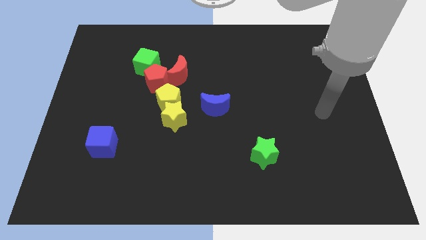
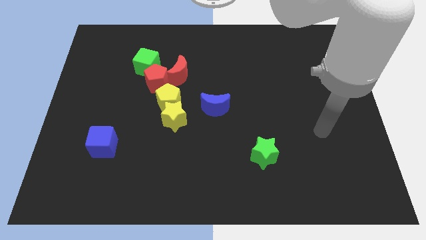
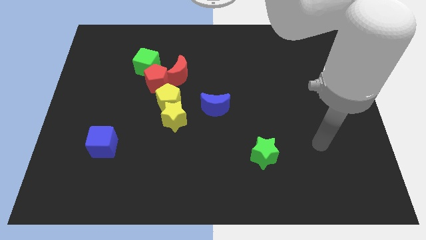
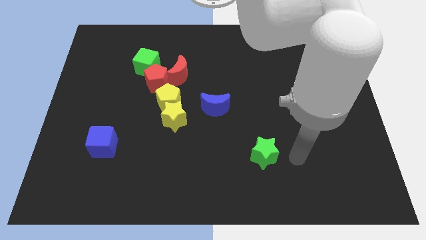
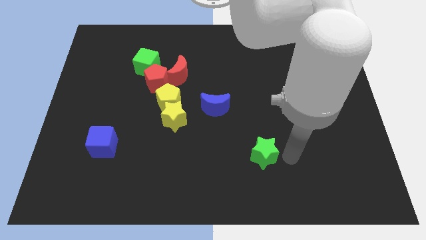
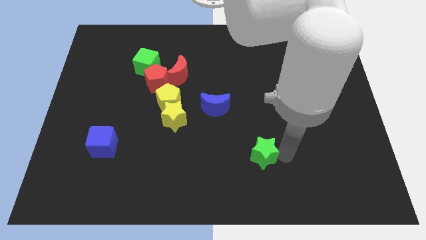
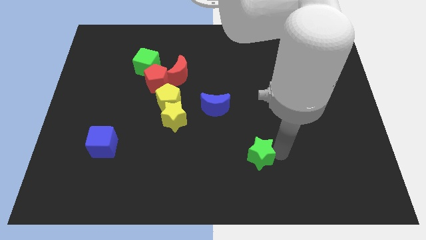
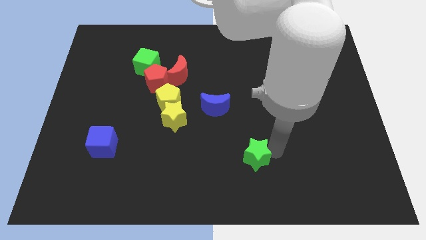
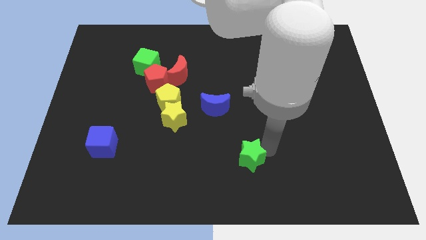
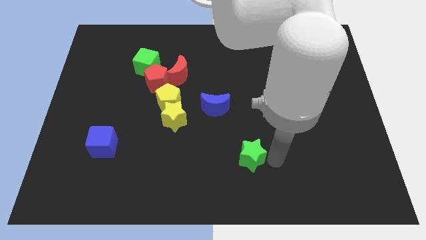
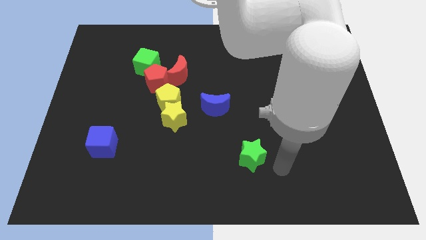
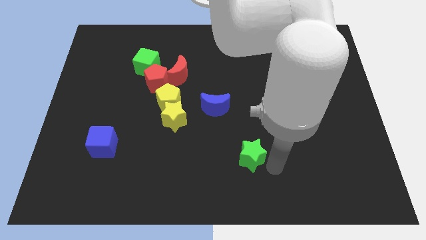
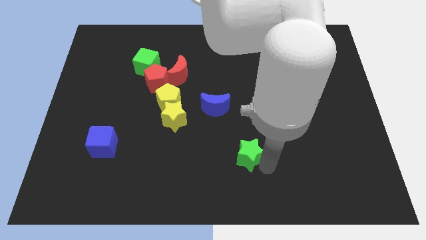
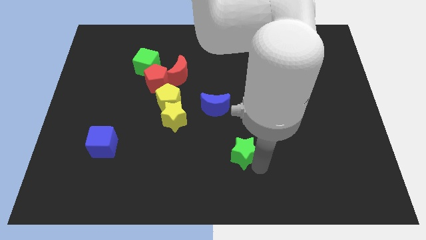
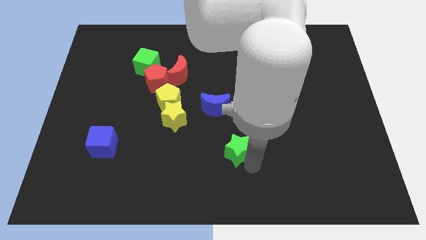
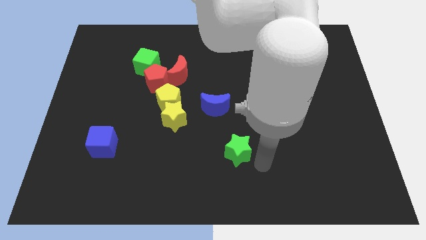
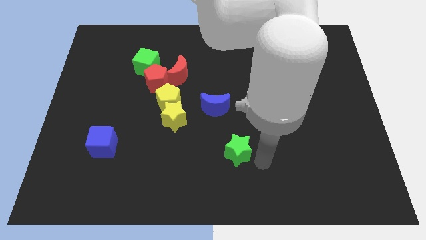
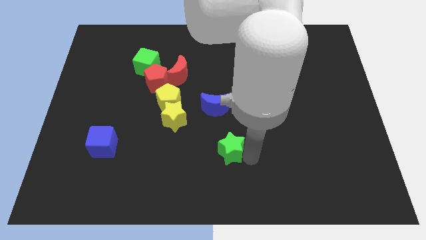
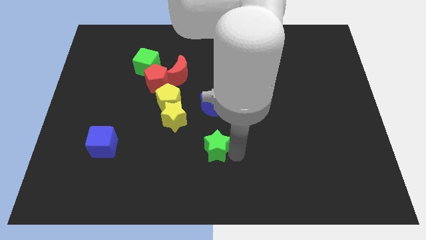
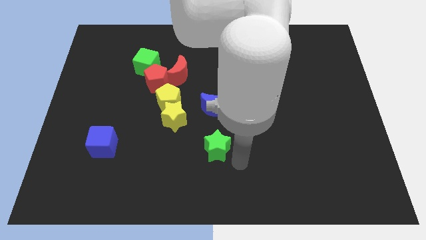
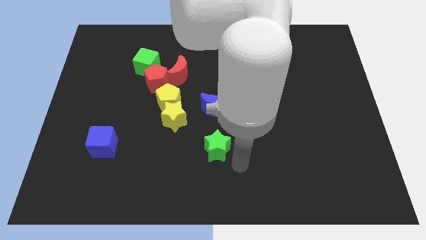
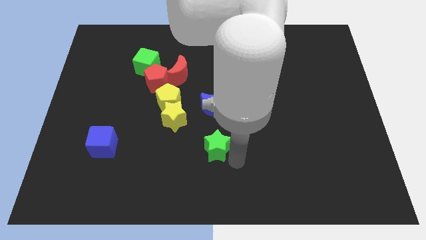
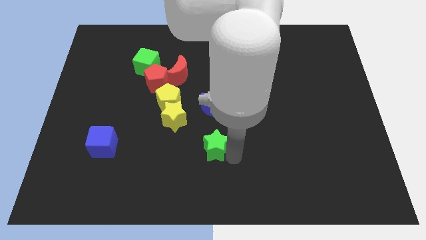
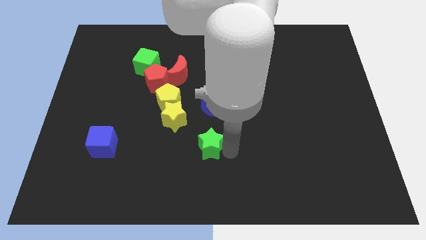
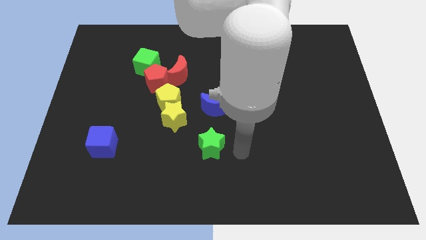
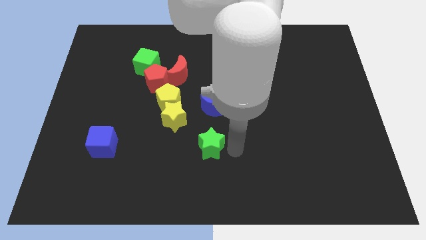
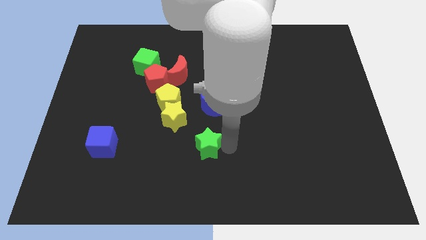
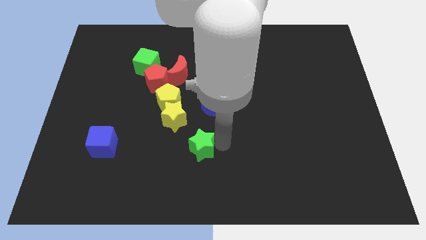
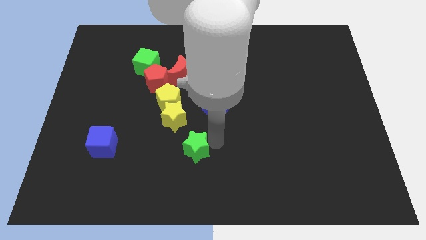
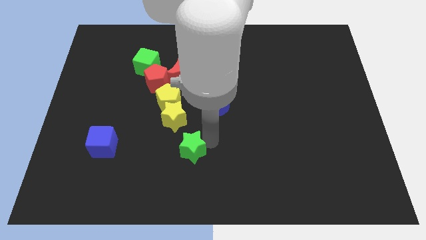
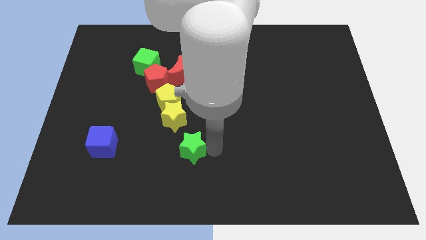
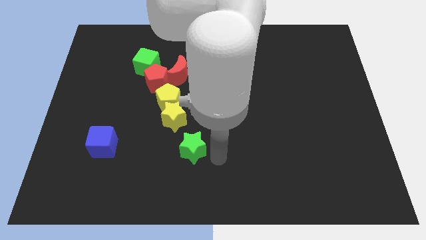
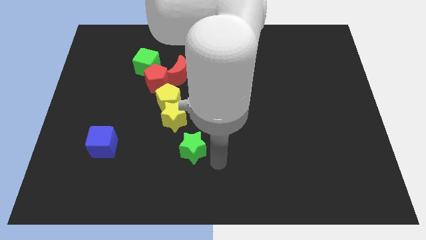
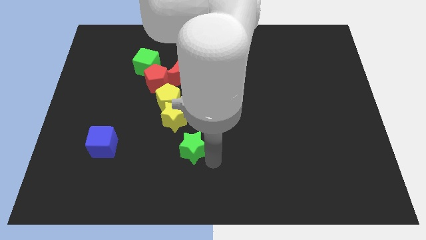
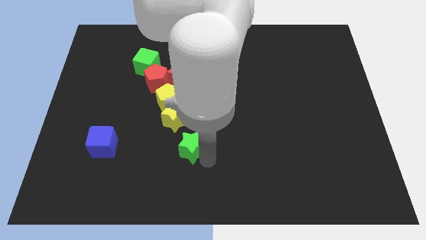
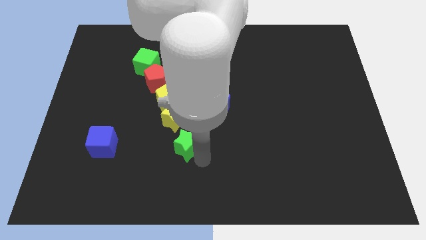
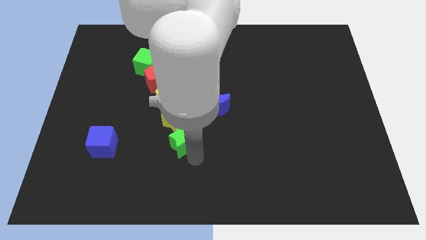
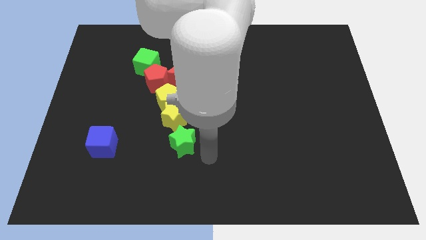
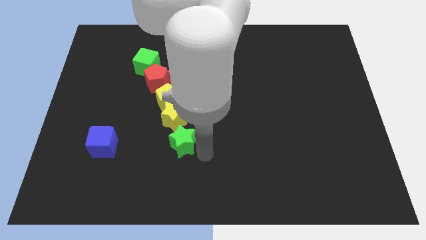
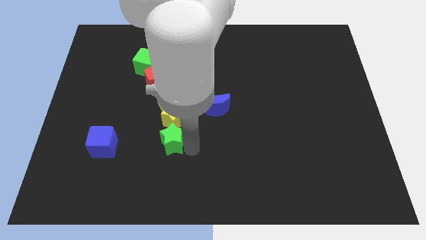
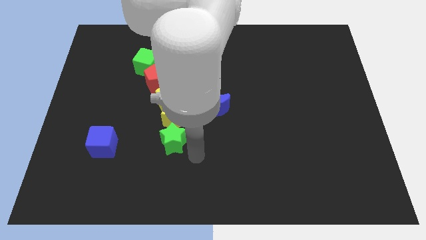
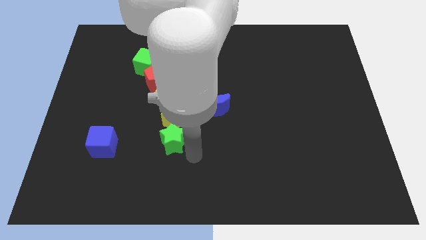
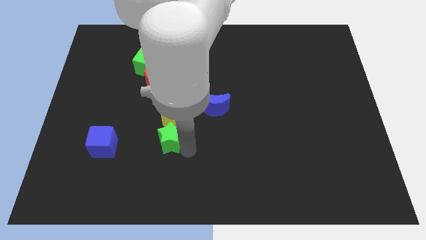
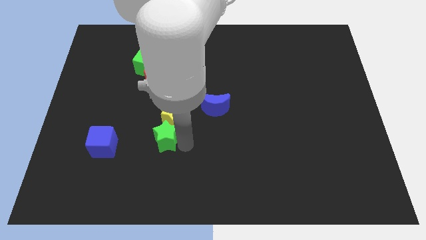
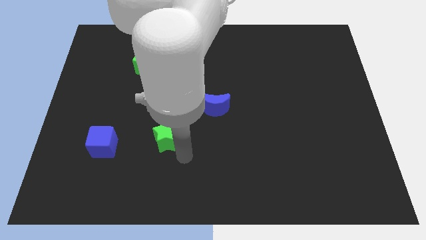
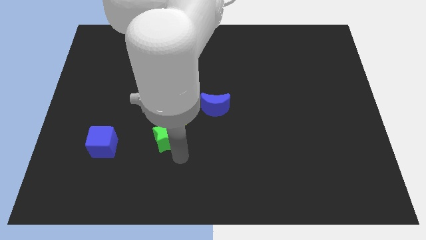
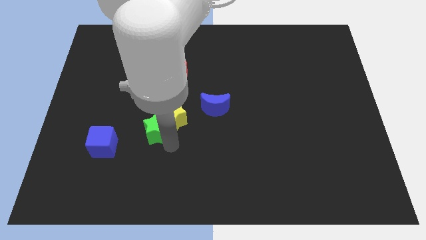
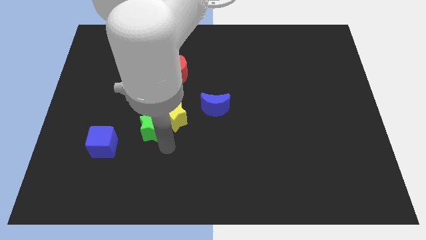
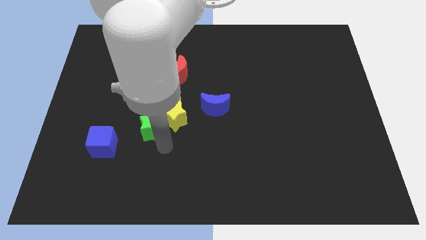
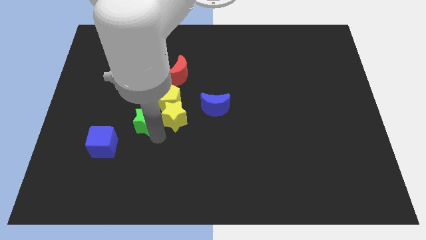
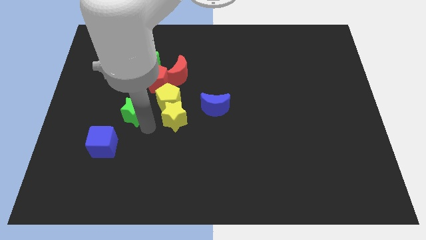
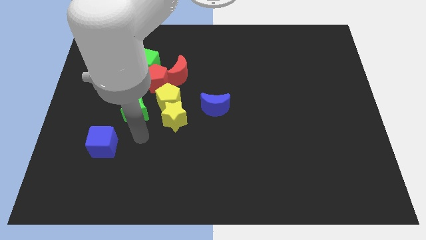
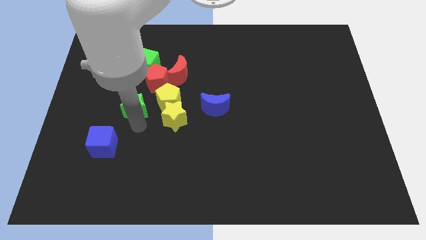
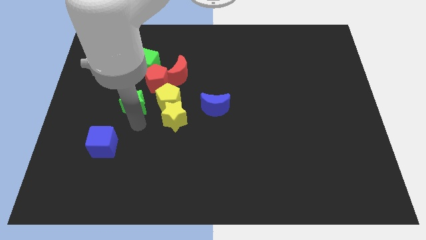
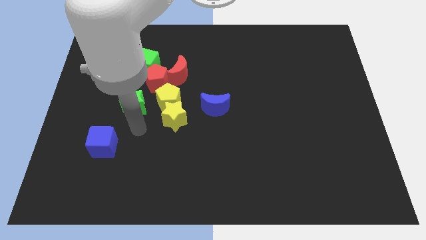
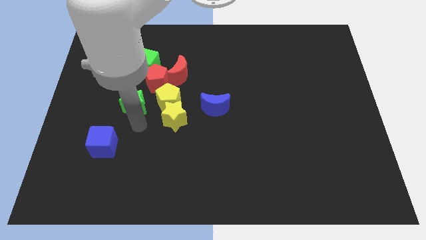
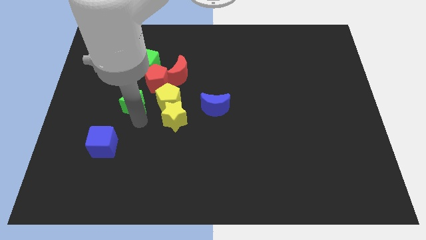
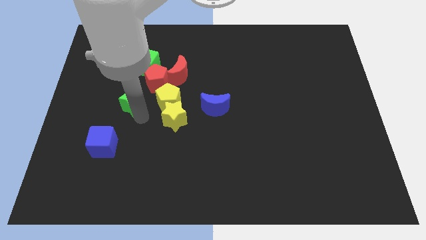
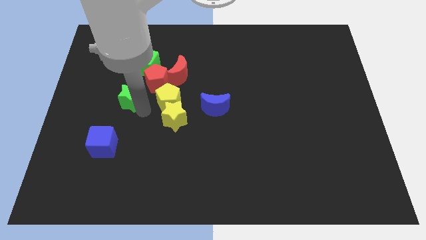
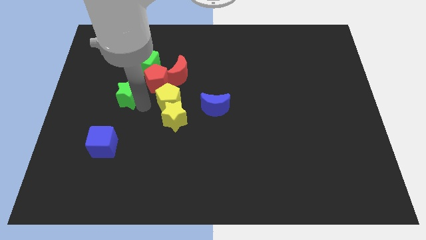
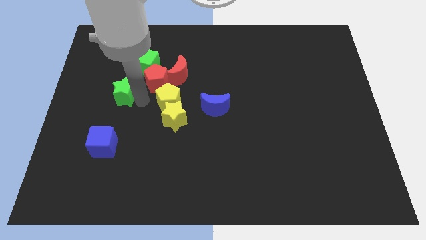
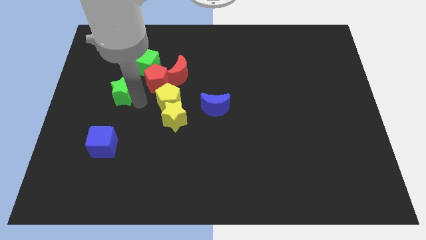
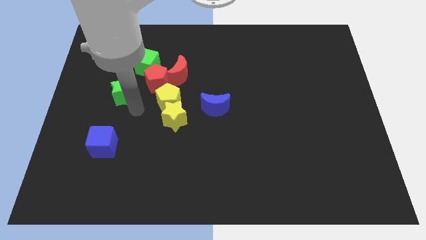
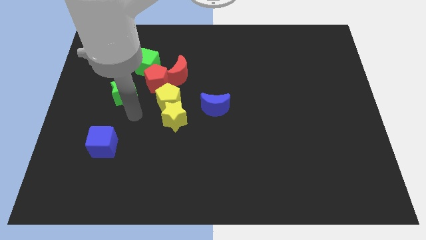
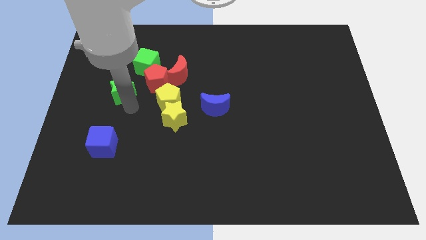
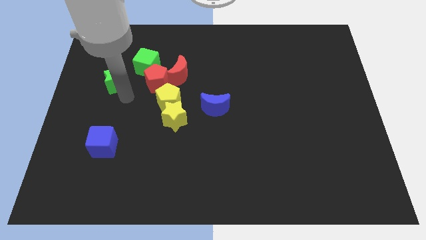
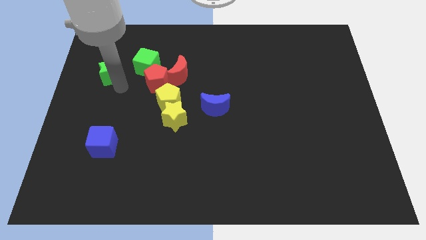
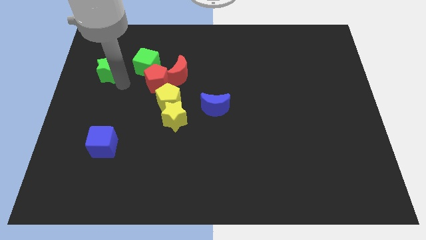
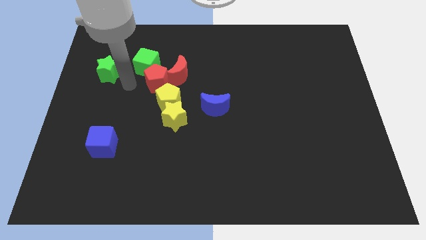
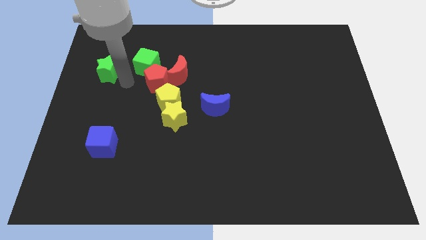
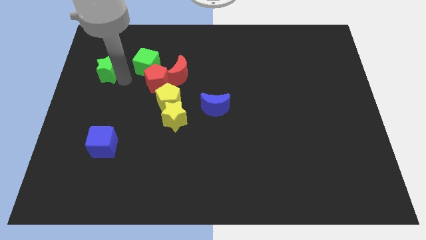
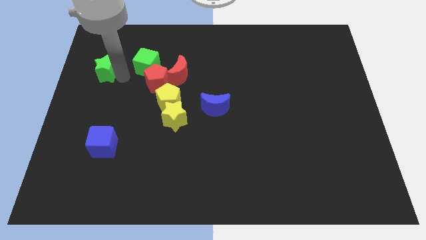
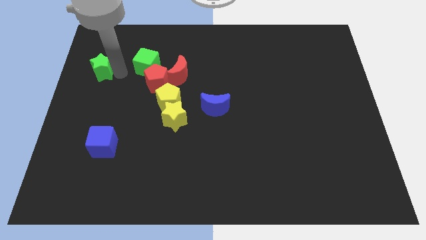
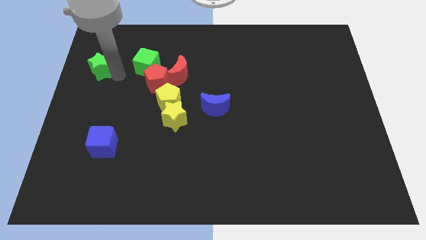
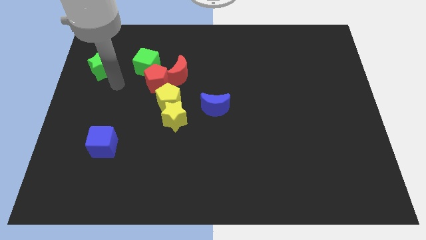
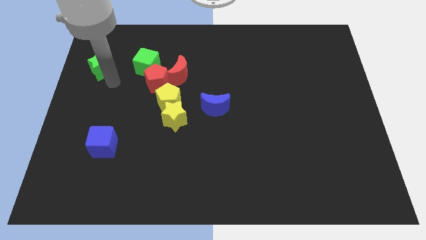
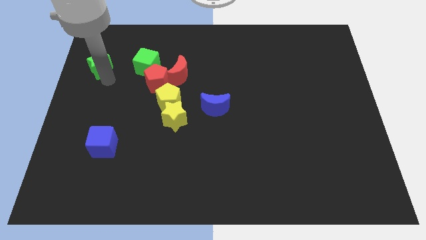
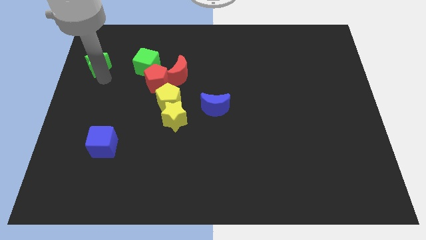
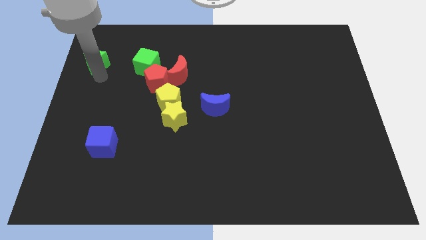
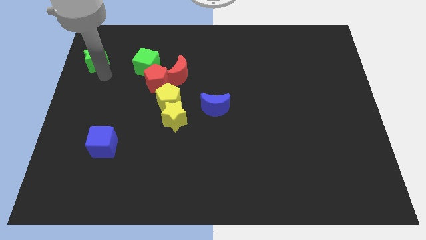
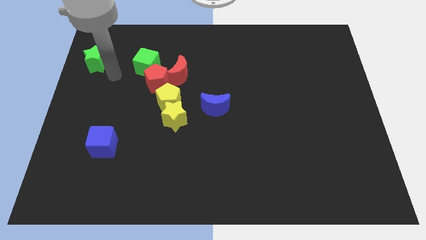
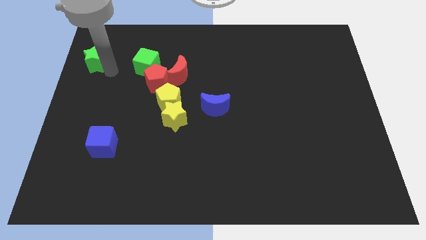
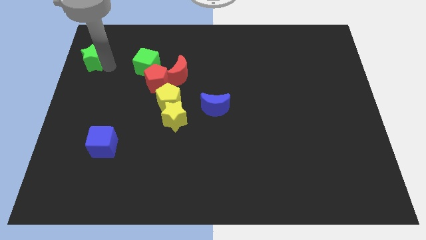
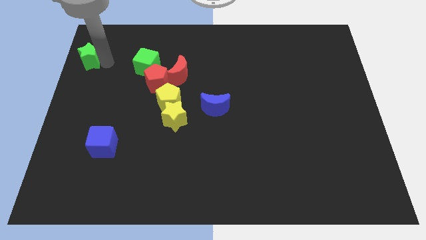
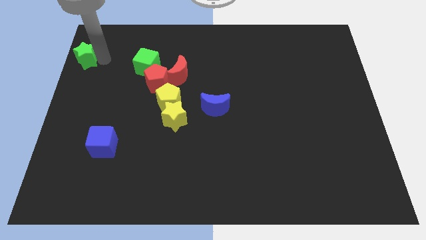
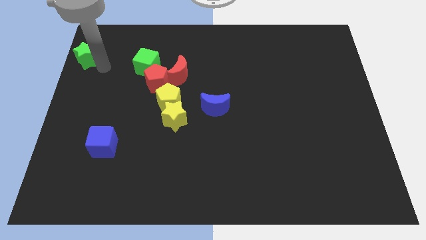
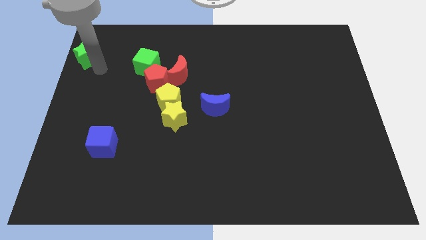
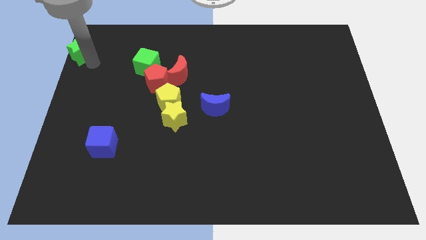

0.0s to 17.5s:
slide the green star to the upper left corner
